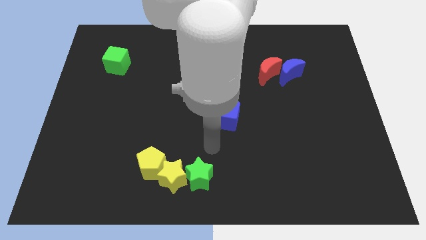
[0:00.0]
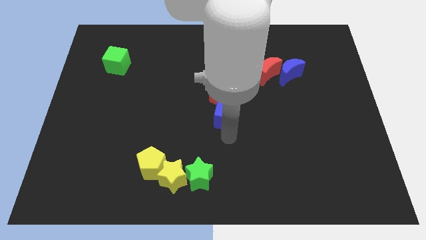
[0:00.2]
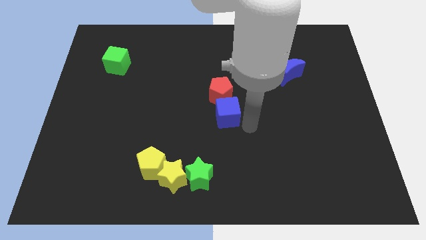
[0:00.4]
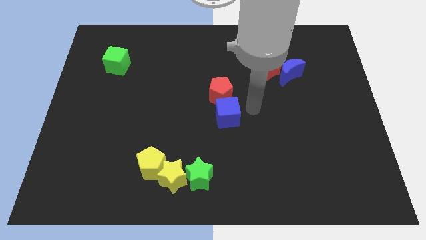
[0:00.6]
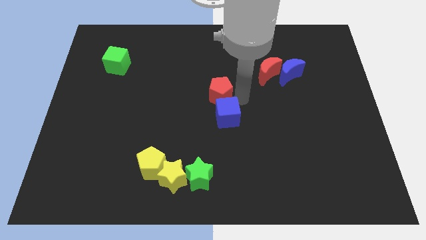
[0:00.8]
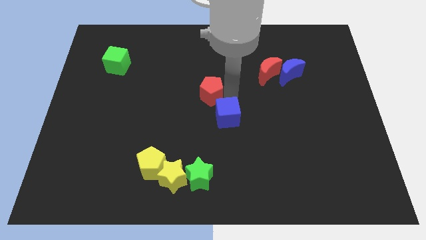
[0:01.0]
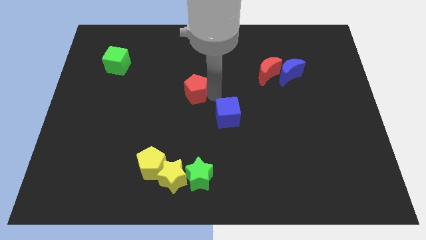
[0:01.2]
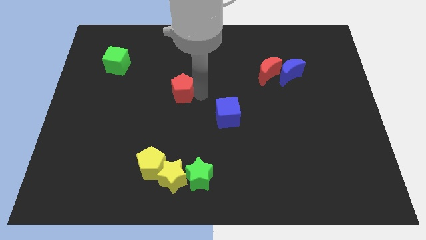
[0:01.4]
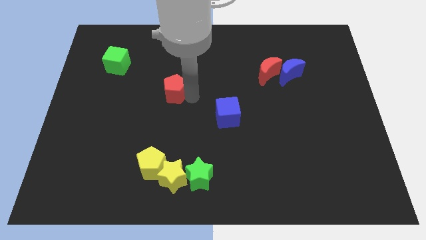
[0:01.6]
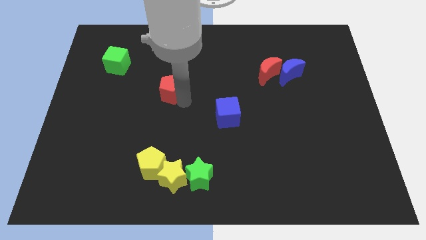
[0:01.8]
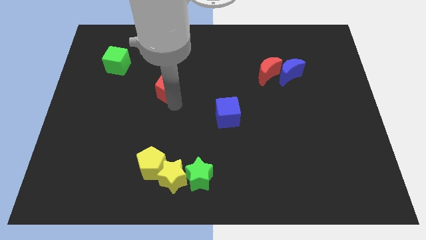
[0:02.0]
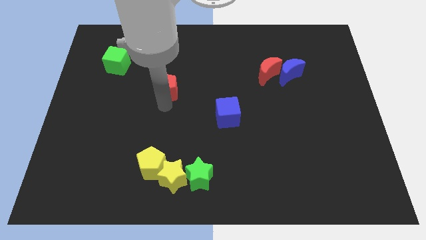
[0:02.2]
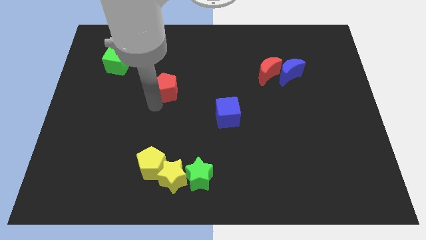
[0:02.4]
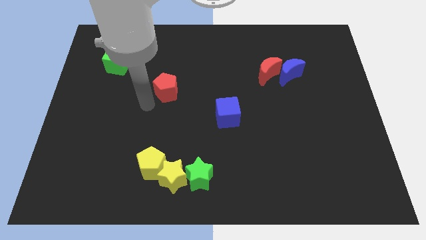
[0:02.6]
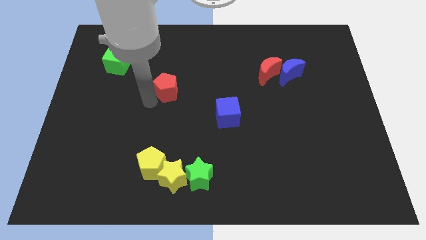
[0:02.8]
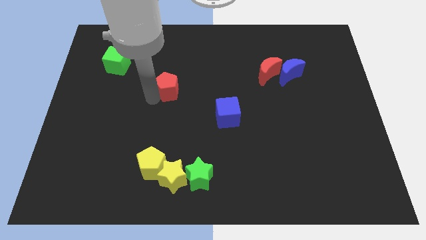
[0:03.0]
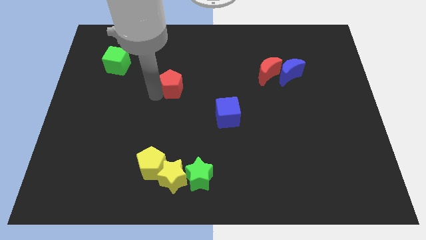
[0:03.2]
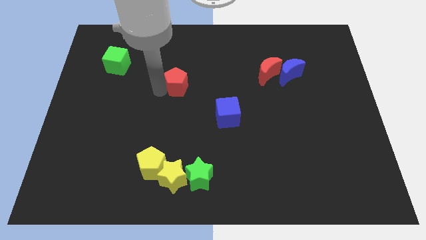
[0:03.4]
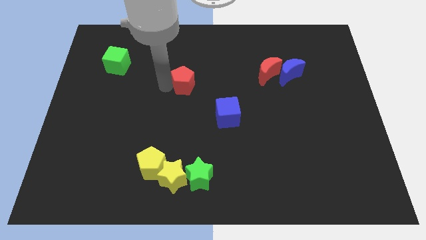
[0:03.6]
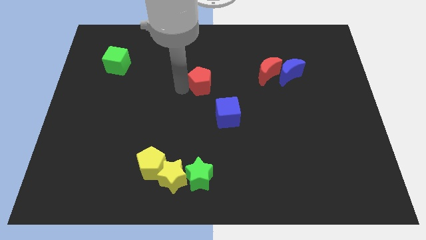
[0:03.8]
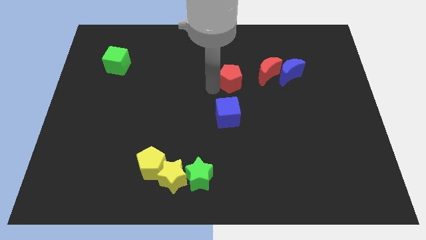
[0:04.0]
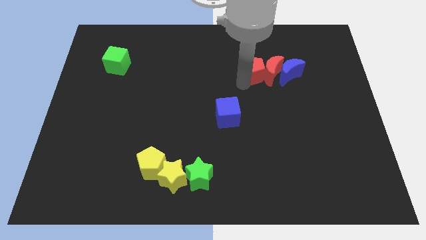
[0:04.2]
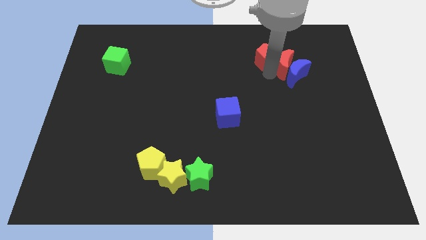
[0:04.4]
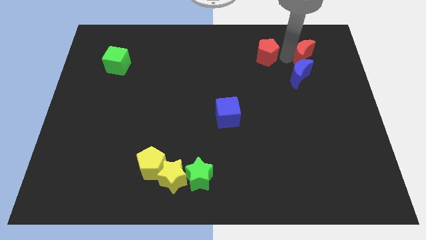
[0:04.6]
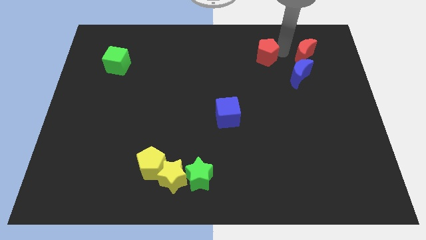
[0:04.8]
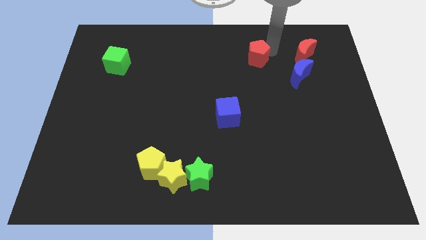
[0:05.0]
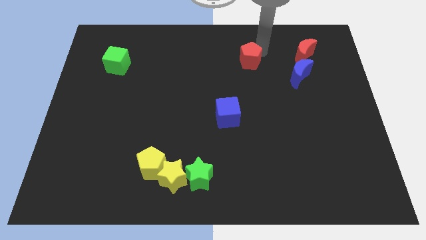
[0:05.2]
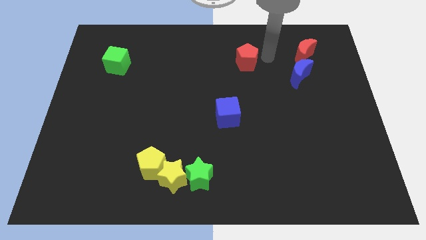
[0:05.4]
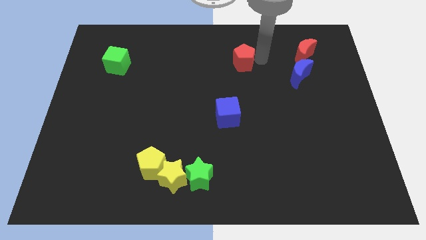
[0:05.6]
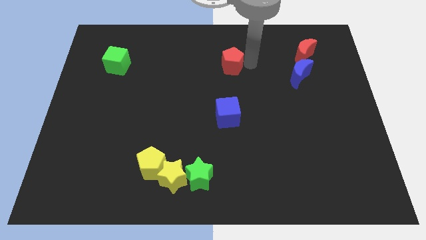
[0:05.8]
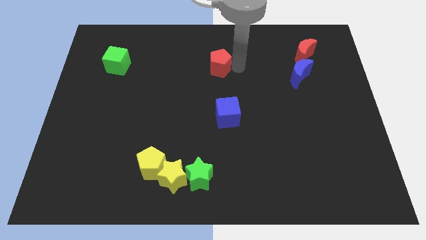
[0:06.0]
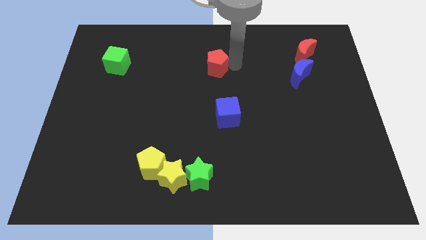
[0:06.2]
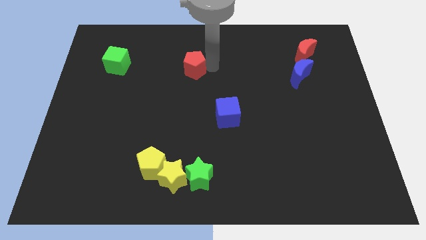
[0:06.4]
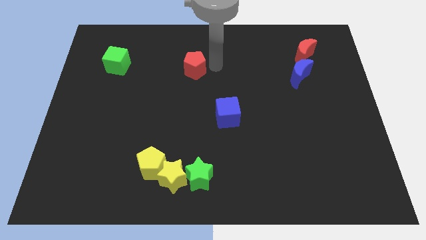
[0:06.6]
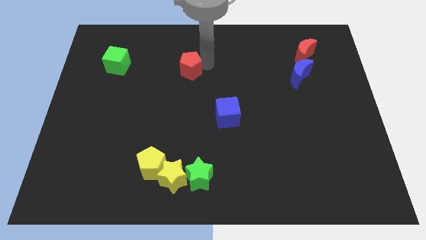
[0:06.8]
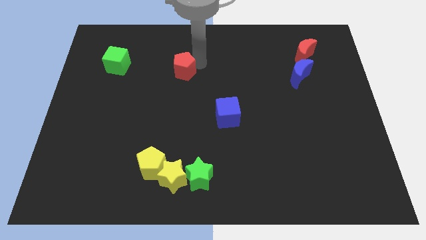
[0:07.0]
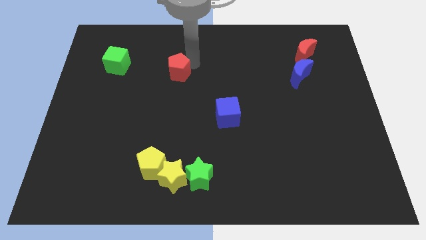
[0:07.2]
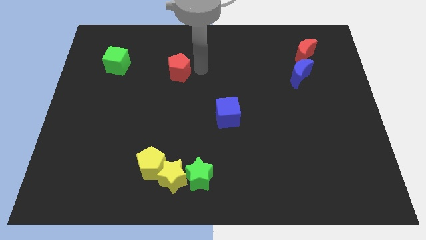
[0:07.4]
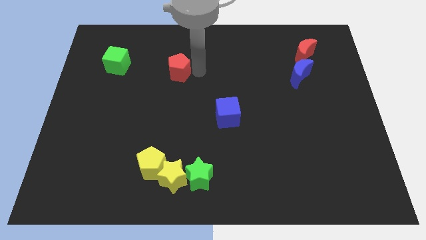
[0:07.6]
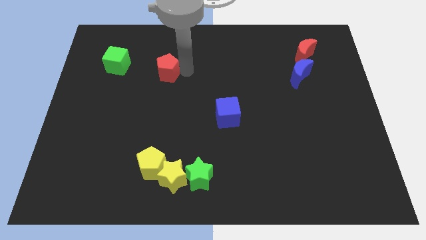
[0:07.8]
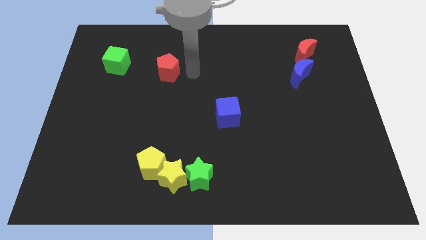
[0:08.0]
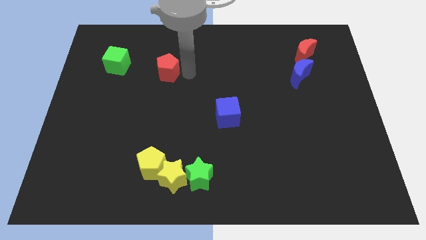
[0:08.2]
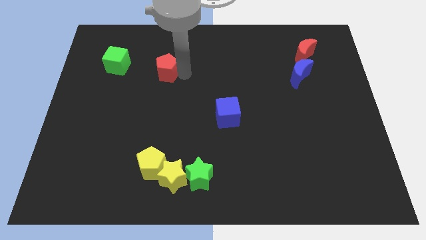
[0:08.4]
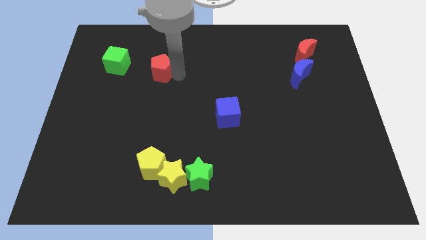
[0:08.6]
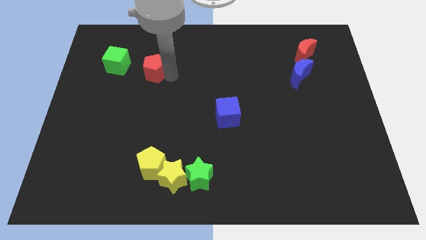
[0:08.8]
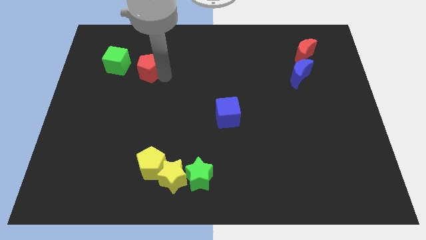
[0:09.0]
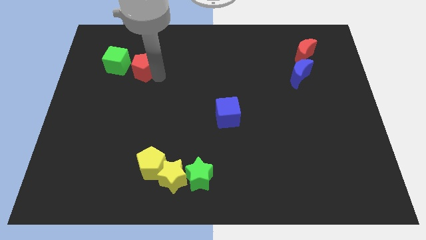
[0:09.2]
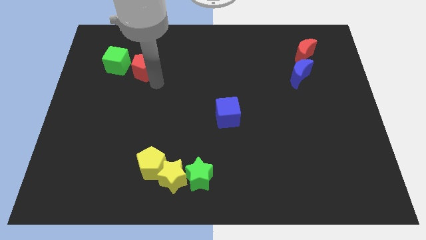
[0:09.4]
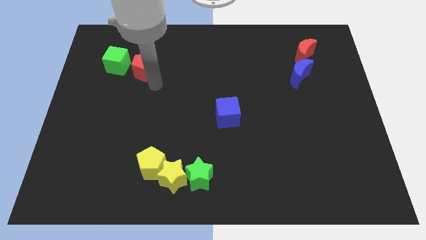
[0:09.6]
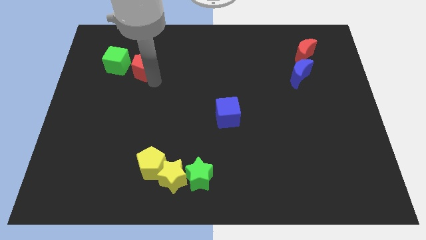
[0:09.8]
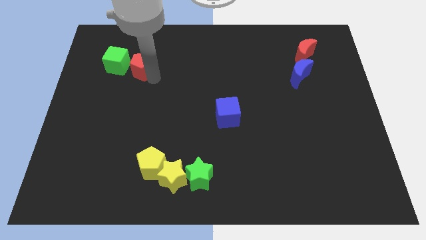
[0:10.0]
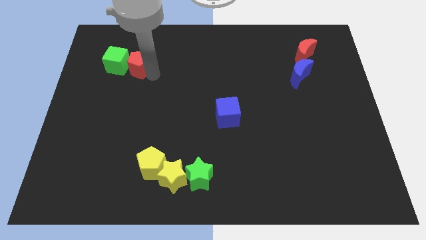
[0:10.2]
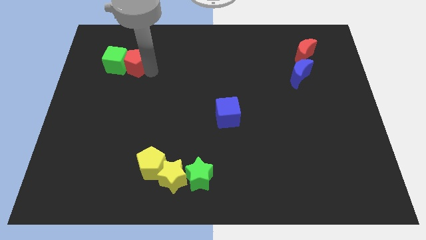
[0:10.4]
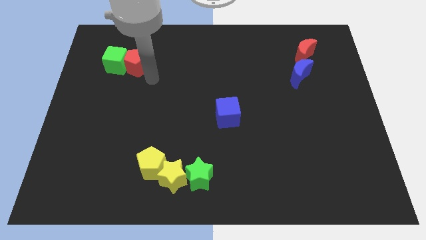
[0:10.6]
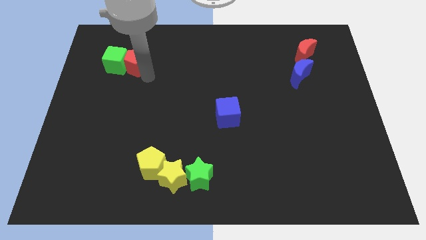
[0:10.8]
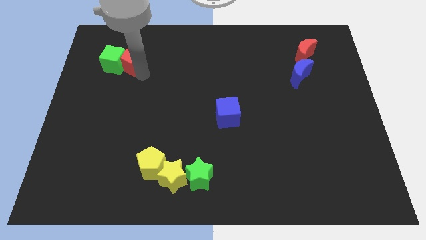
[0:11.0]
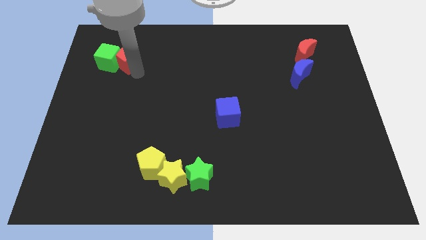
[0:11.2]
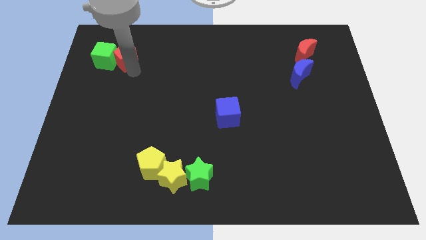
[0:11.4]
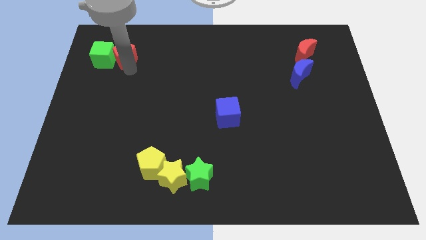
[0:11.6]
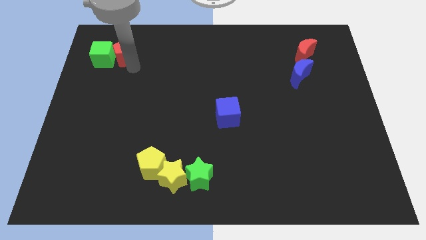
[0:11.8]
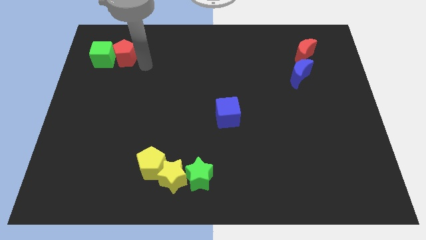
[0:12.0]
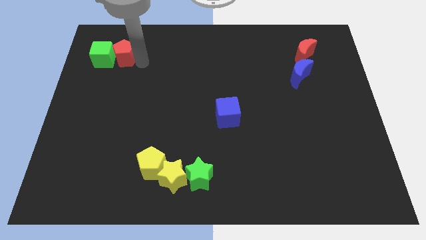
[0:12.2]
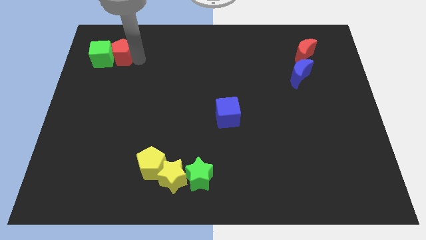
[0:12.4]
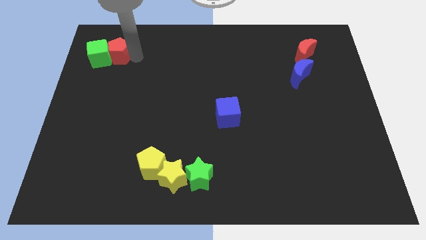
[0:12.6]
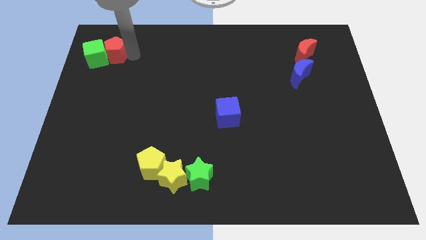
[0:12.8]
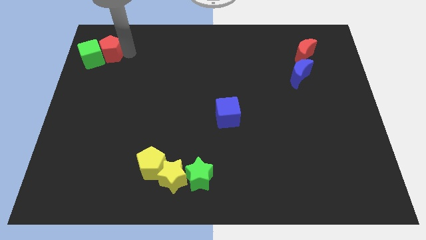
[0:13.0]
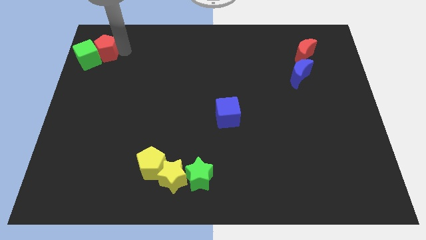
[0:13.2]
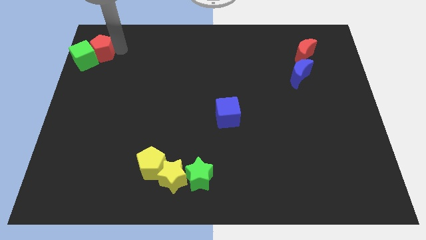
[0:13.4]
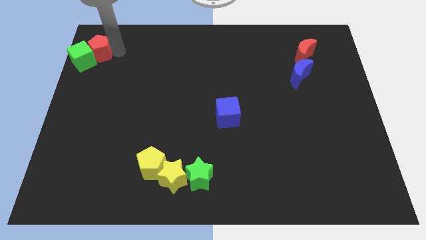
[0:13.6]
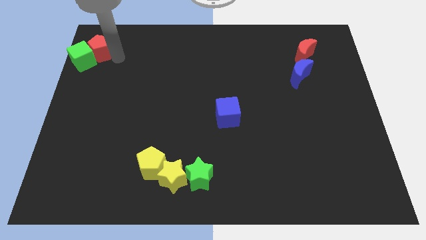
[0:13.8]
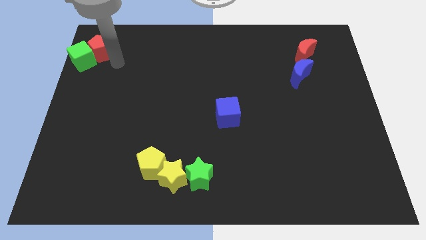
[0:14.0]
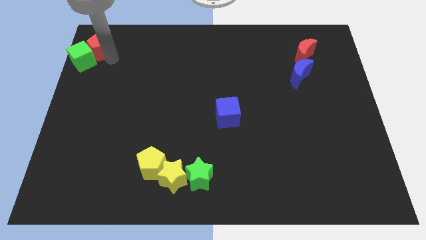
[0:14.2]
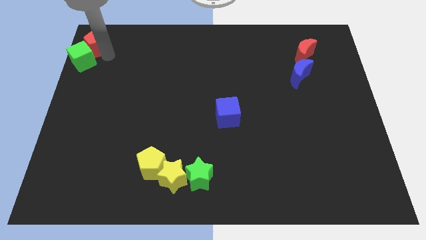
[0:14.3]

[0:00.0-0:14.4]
move the red pentagon to the top left
